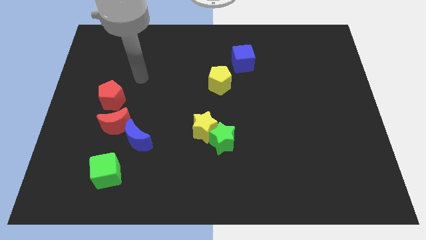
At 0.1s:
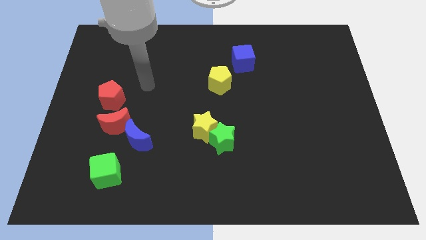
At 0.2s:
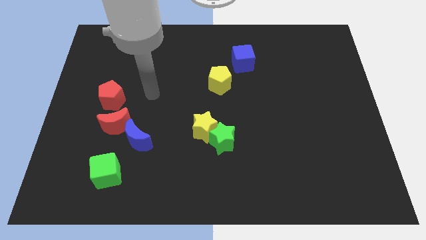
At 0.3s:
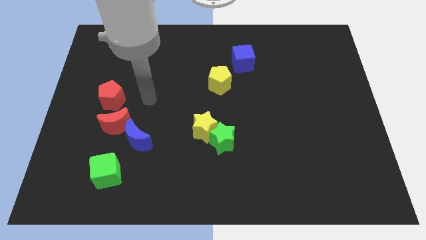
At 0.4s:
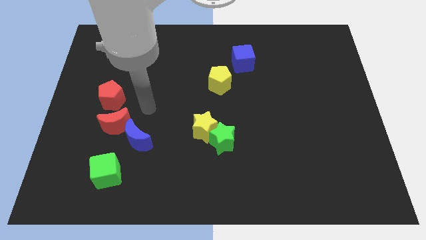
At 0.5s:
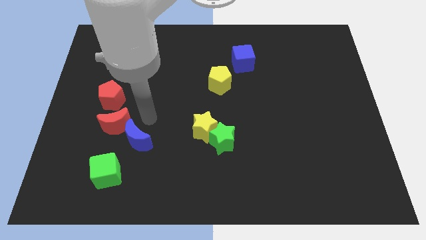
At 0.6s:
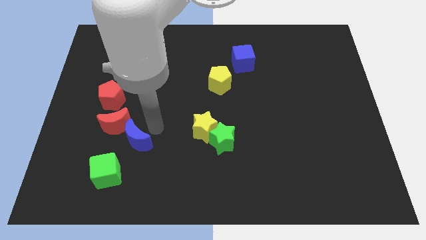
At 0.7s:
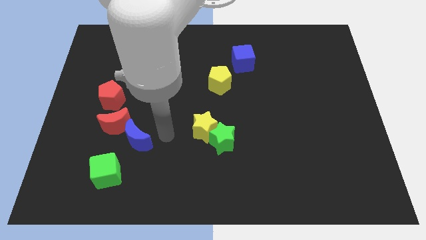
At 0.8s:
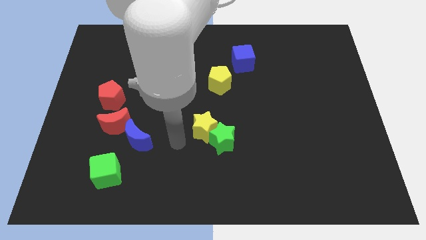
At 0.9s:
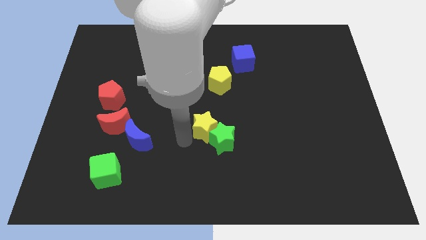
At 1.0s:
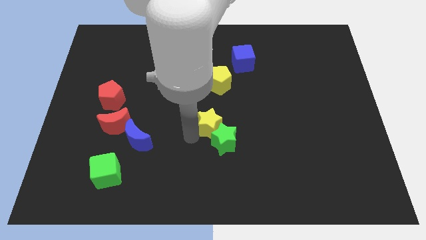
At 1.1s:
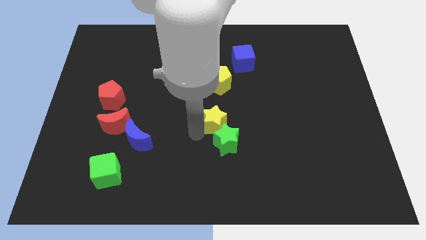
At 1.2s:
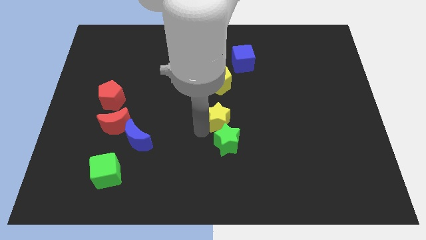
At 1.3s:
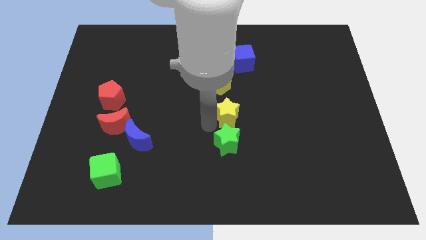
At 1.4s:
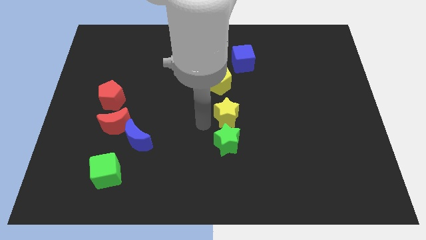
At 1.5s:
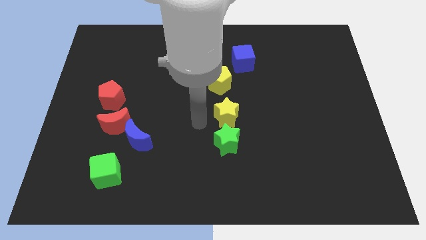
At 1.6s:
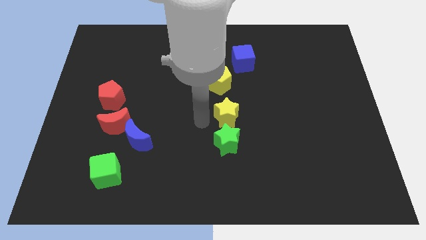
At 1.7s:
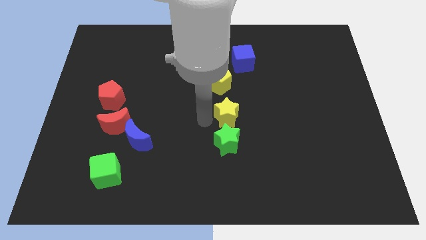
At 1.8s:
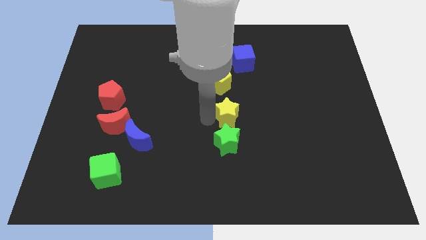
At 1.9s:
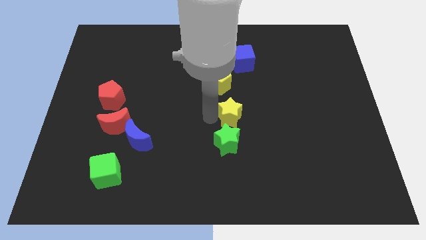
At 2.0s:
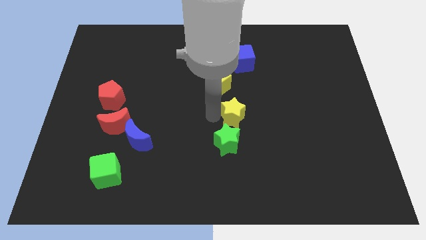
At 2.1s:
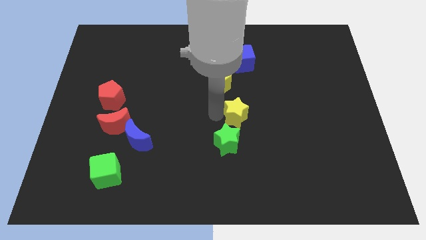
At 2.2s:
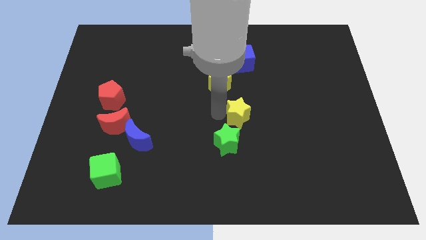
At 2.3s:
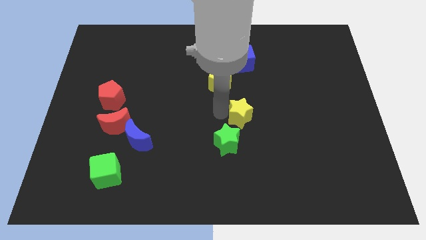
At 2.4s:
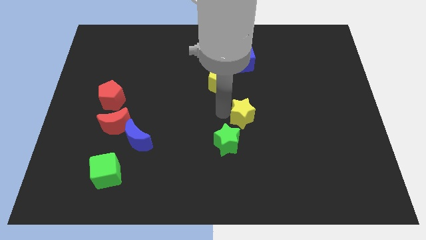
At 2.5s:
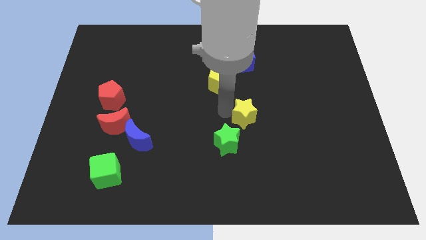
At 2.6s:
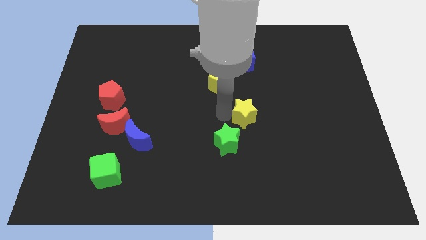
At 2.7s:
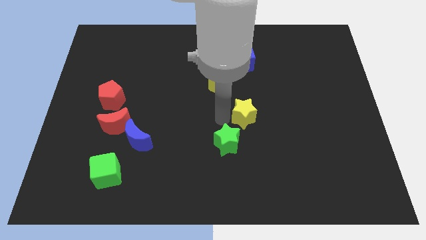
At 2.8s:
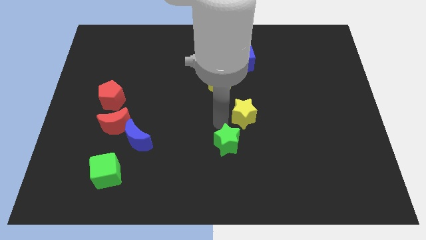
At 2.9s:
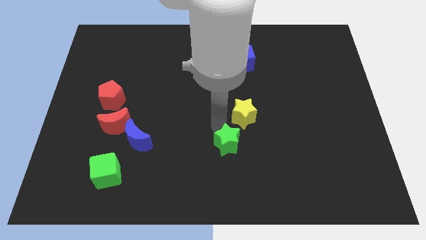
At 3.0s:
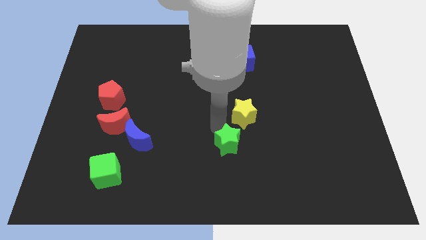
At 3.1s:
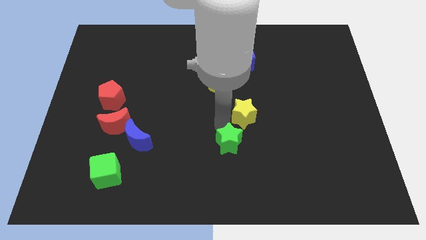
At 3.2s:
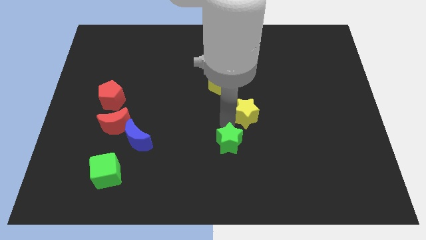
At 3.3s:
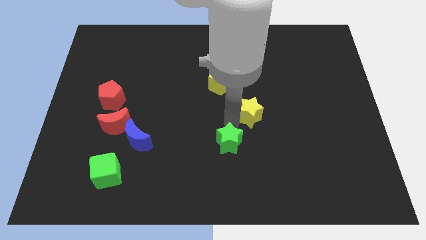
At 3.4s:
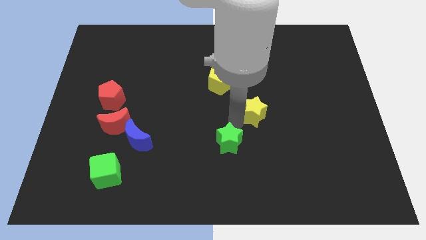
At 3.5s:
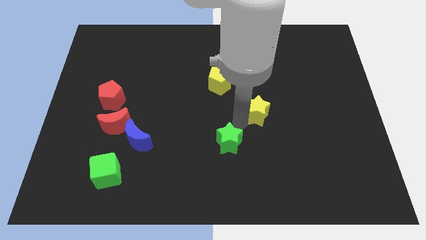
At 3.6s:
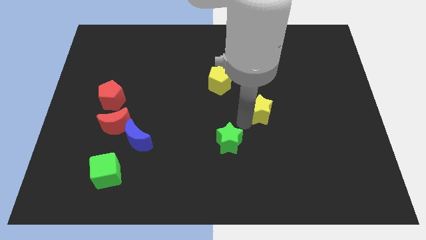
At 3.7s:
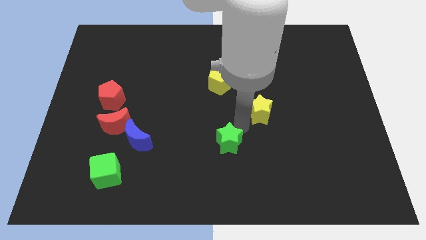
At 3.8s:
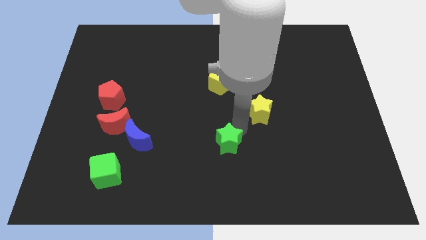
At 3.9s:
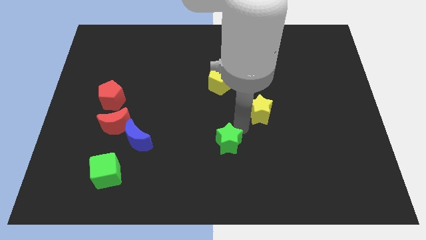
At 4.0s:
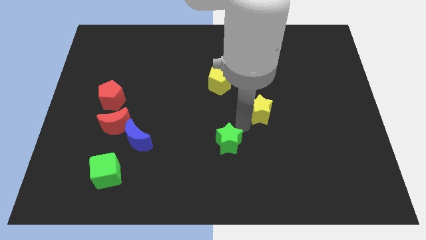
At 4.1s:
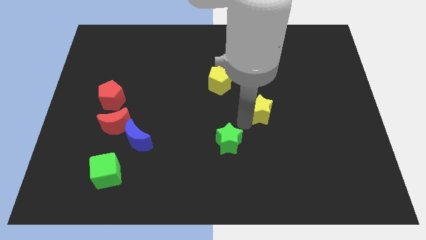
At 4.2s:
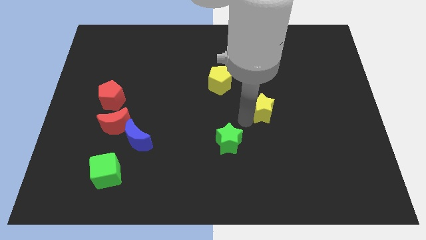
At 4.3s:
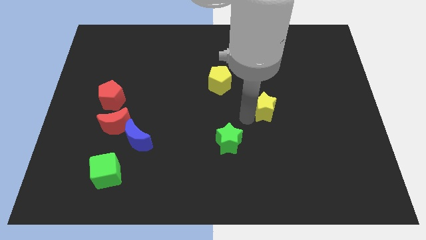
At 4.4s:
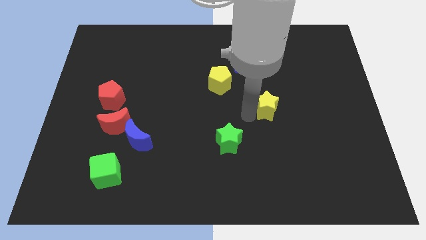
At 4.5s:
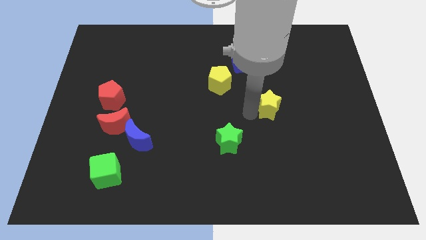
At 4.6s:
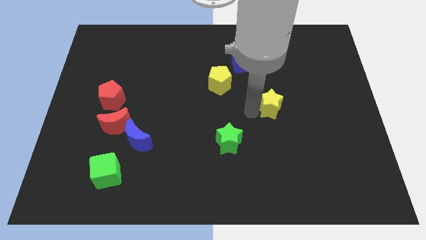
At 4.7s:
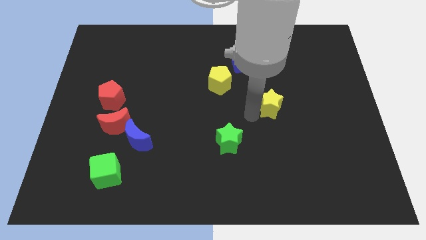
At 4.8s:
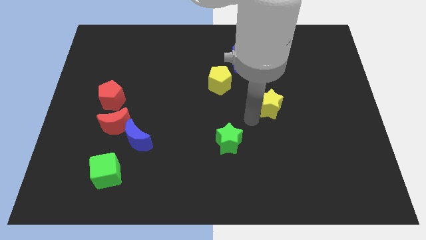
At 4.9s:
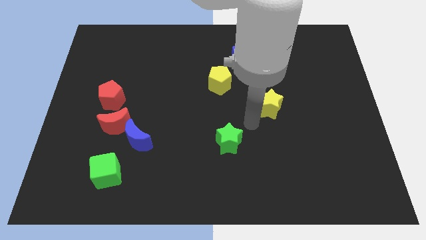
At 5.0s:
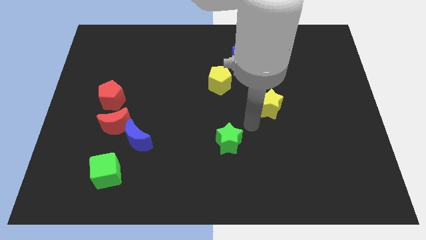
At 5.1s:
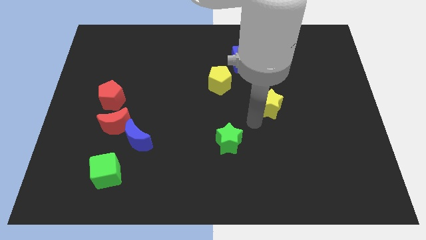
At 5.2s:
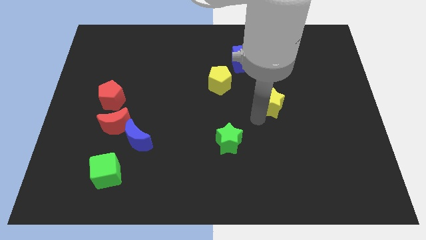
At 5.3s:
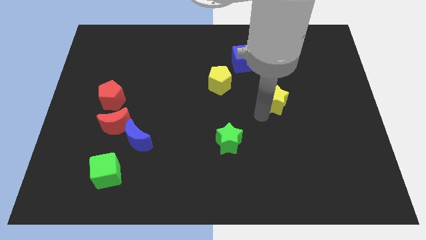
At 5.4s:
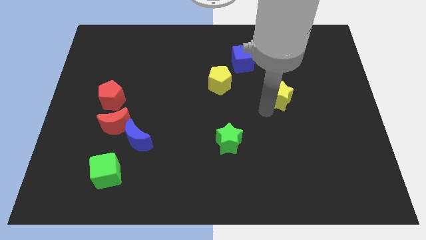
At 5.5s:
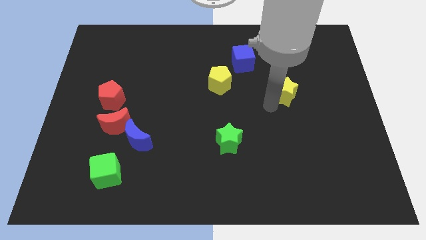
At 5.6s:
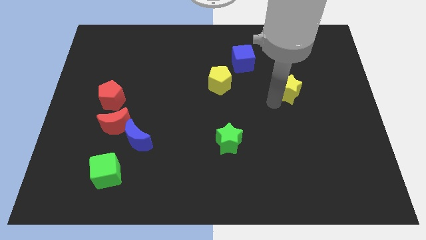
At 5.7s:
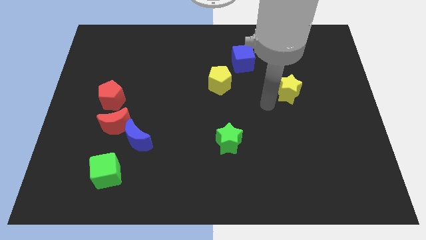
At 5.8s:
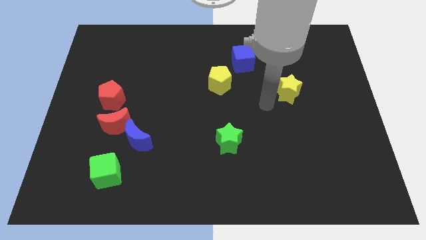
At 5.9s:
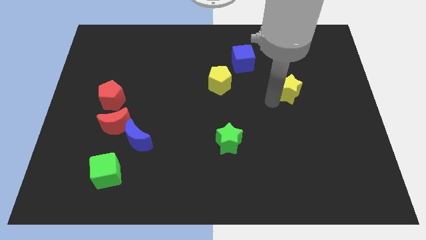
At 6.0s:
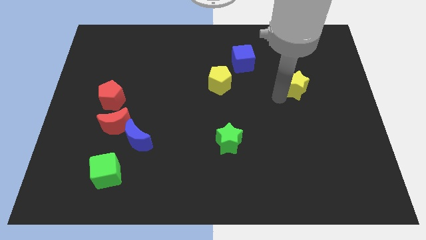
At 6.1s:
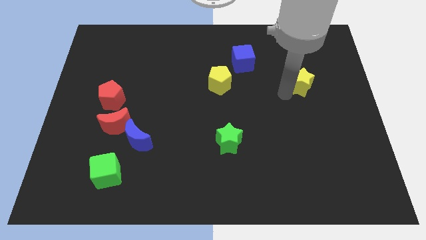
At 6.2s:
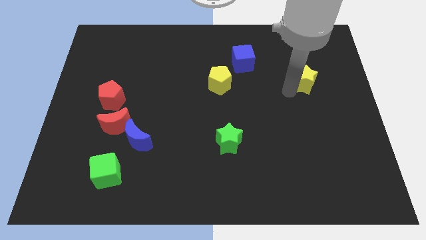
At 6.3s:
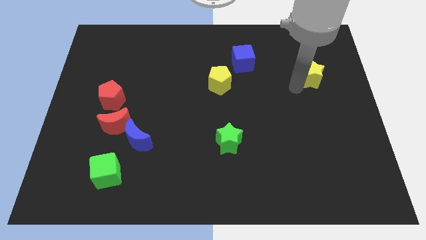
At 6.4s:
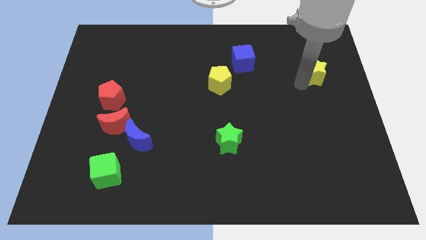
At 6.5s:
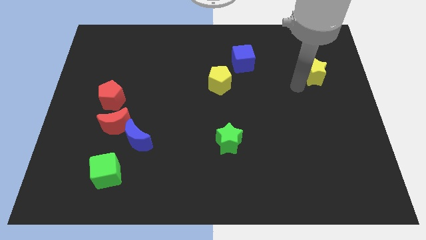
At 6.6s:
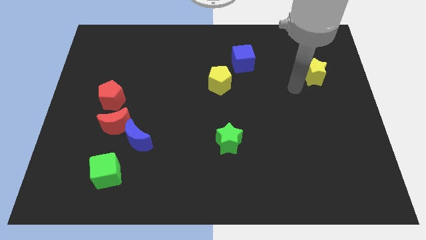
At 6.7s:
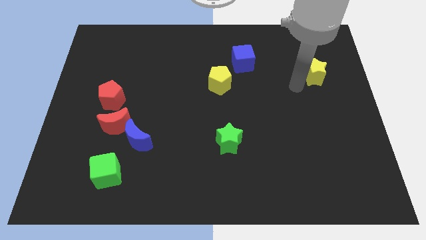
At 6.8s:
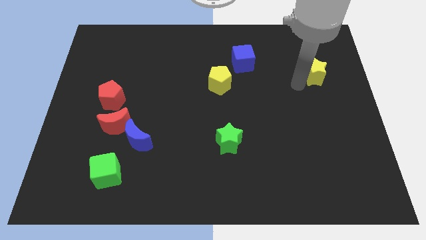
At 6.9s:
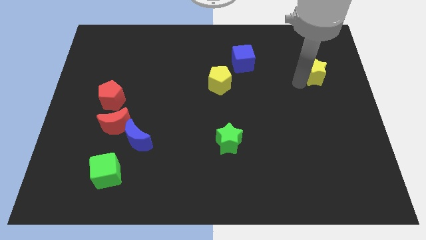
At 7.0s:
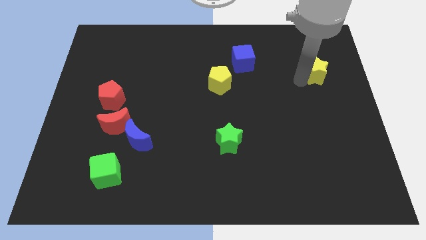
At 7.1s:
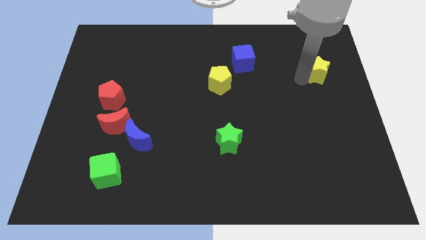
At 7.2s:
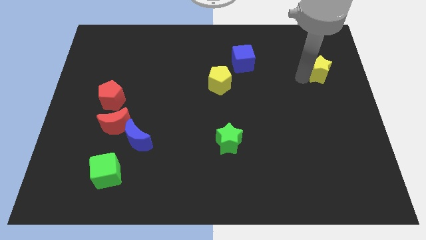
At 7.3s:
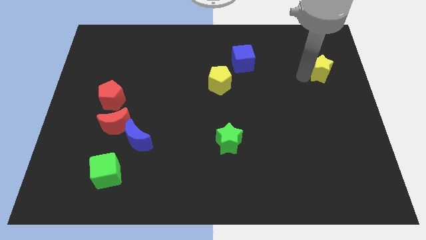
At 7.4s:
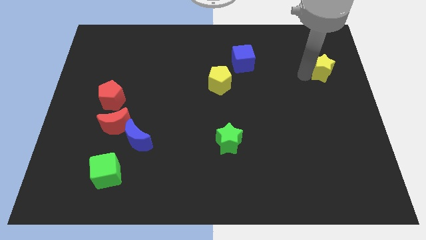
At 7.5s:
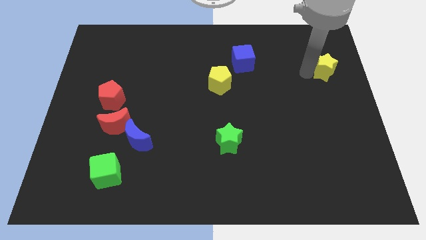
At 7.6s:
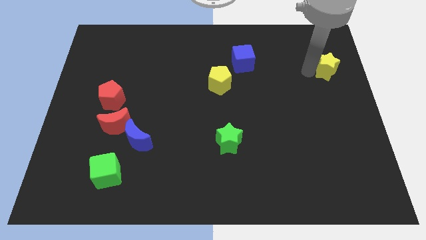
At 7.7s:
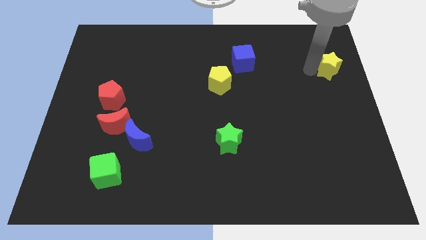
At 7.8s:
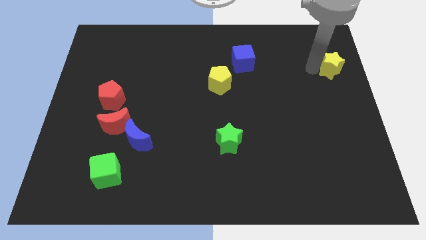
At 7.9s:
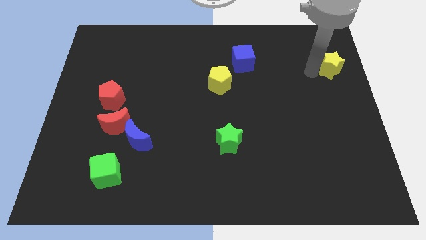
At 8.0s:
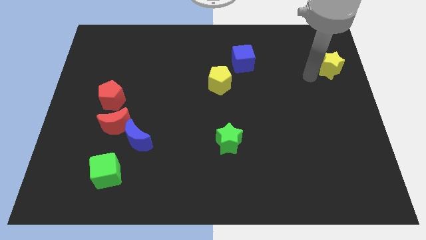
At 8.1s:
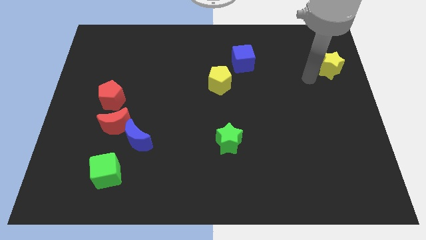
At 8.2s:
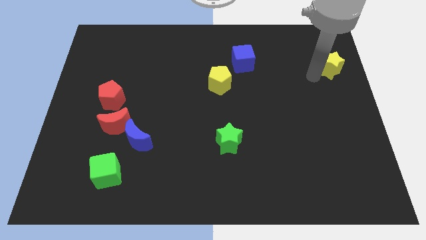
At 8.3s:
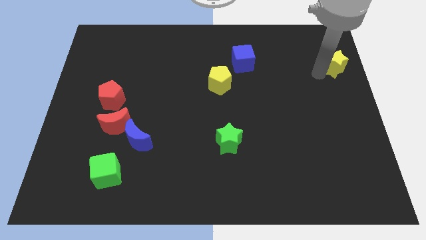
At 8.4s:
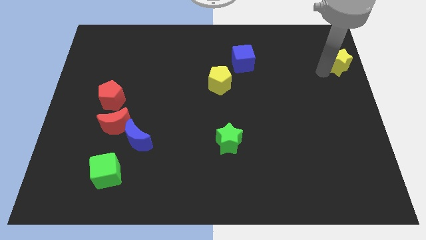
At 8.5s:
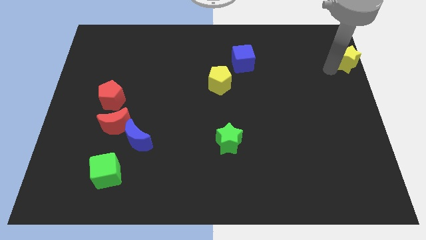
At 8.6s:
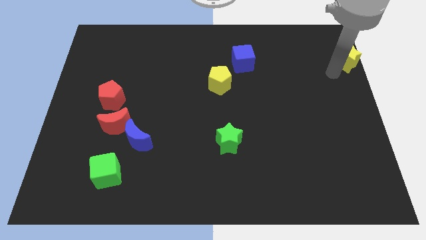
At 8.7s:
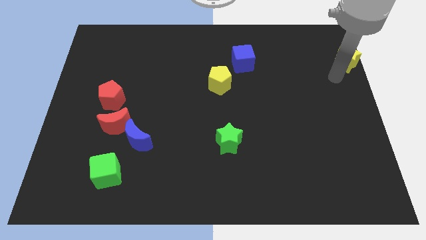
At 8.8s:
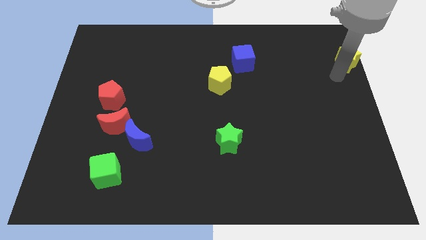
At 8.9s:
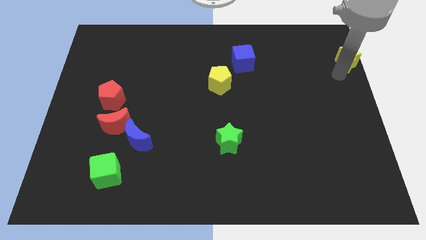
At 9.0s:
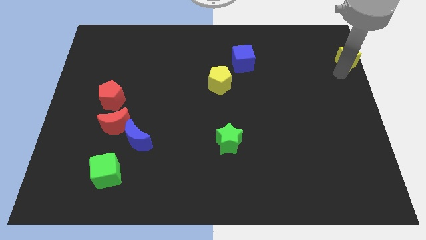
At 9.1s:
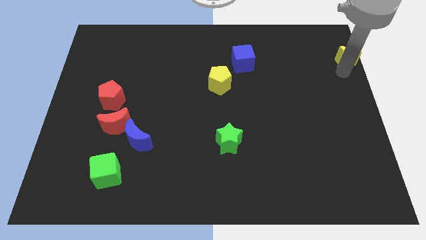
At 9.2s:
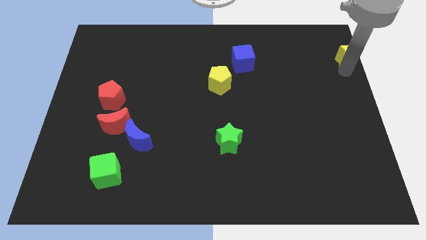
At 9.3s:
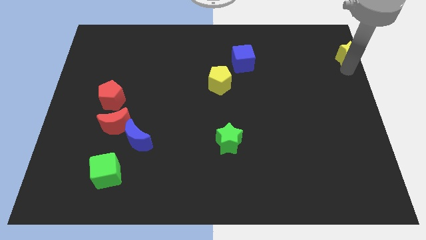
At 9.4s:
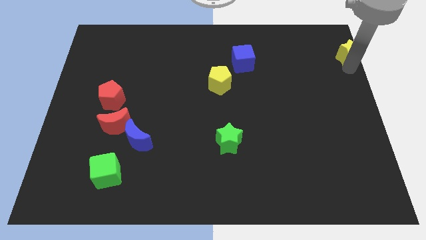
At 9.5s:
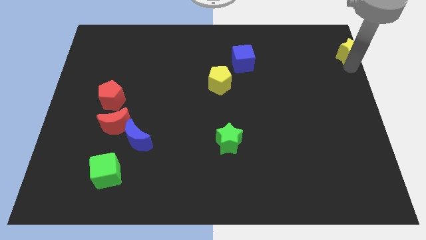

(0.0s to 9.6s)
move the yellow star to the upper right corner
